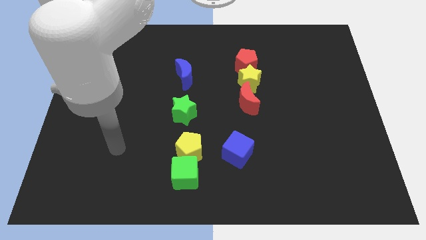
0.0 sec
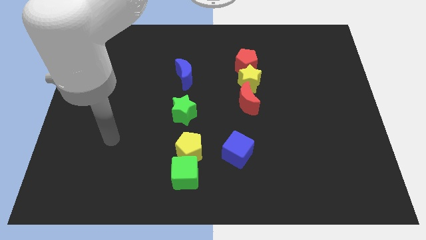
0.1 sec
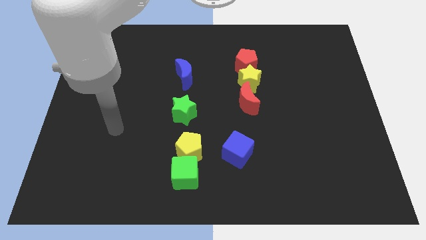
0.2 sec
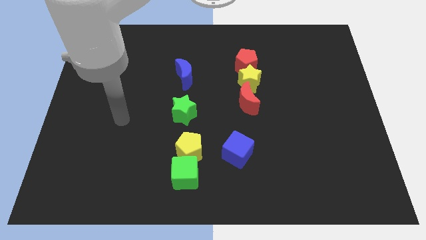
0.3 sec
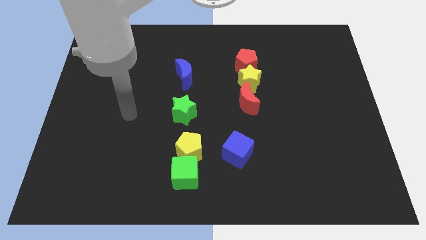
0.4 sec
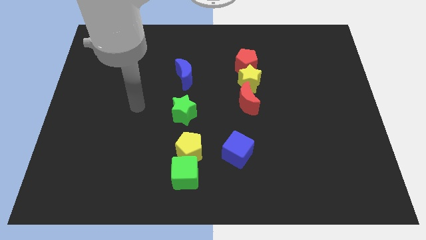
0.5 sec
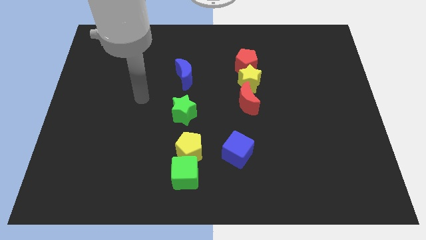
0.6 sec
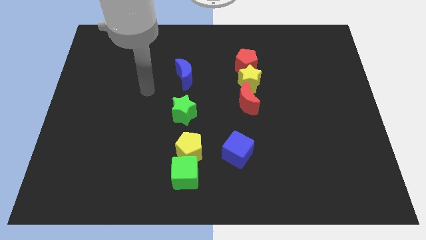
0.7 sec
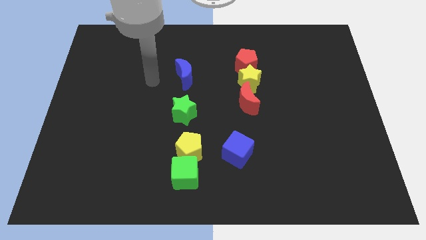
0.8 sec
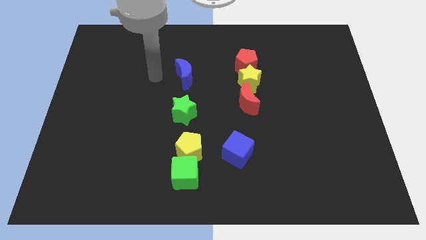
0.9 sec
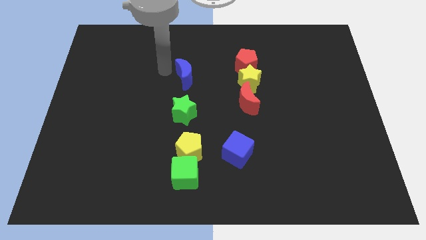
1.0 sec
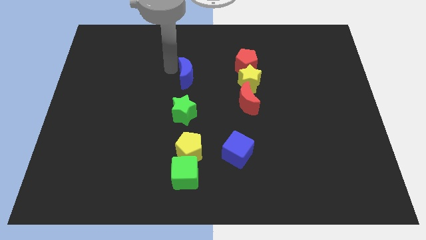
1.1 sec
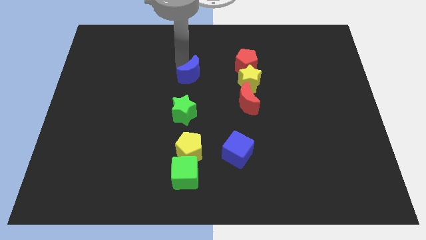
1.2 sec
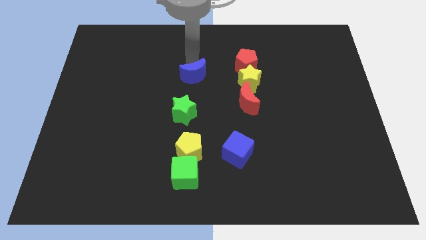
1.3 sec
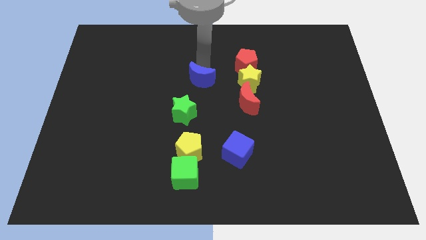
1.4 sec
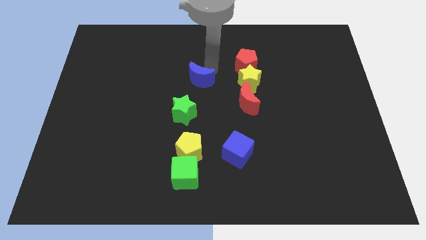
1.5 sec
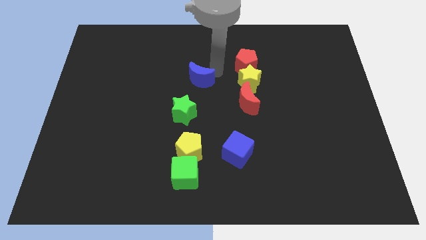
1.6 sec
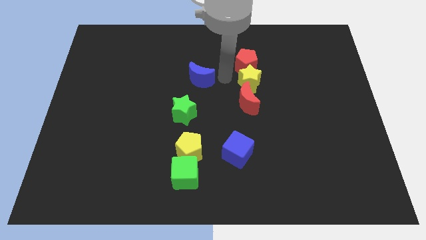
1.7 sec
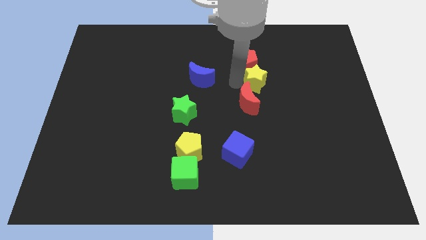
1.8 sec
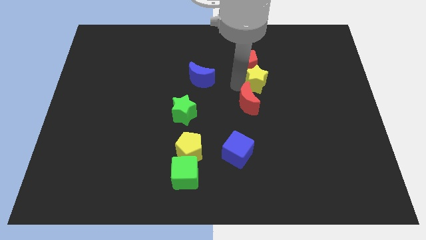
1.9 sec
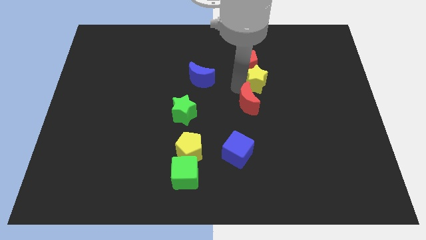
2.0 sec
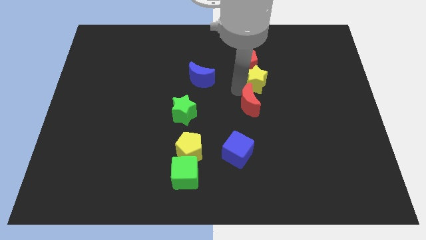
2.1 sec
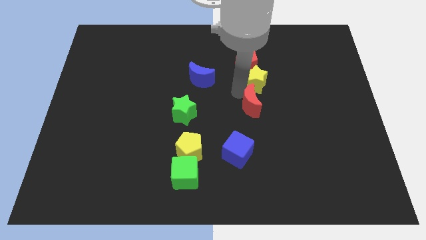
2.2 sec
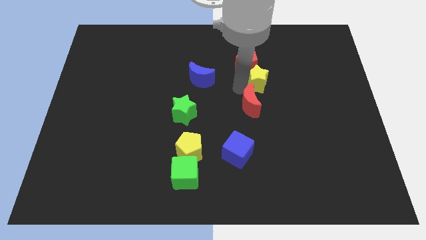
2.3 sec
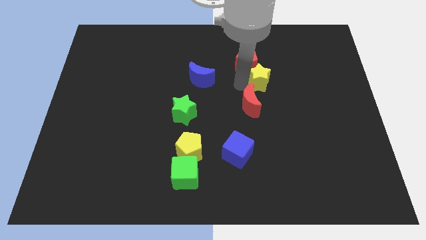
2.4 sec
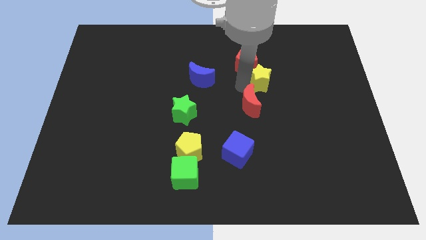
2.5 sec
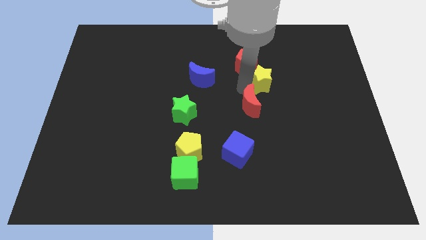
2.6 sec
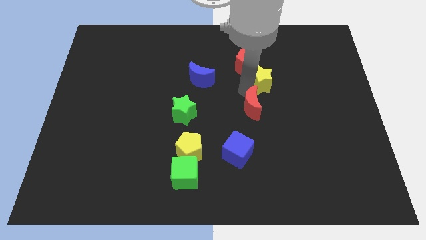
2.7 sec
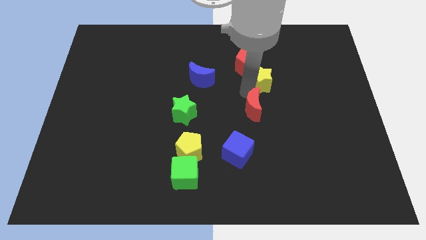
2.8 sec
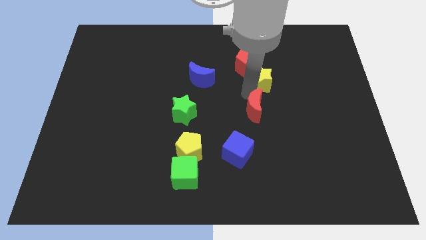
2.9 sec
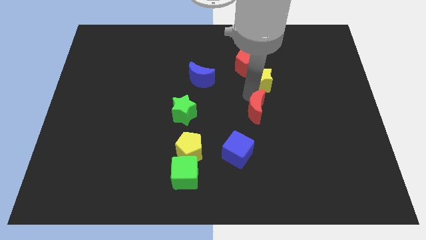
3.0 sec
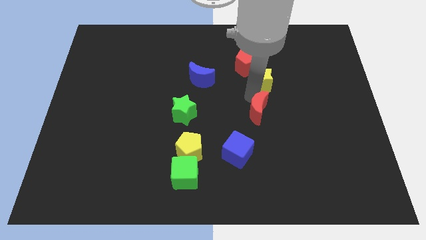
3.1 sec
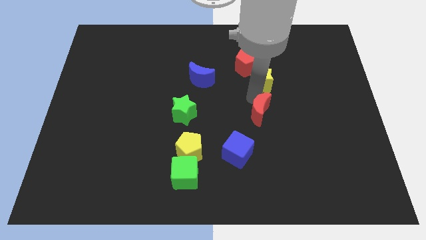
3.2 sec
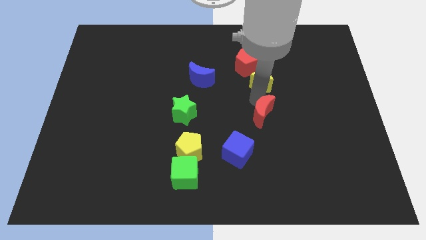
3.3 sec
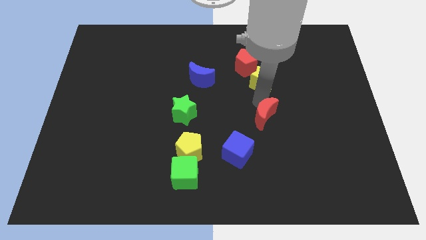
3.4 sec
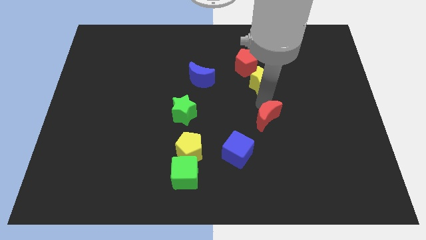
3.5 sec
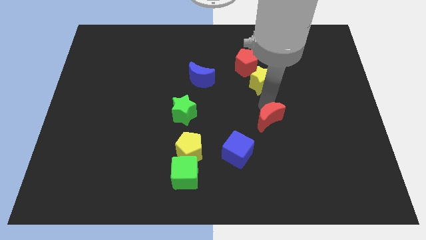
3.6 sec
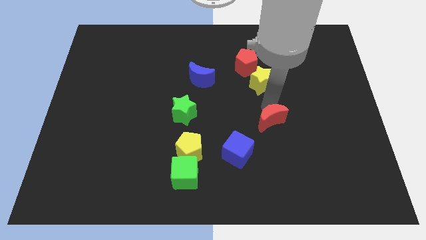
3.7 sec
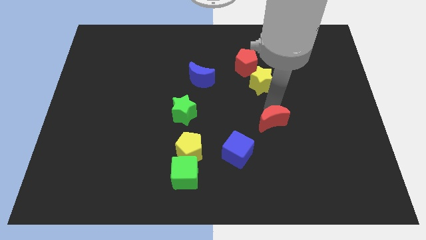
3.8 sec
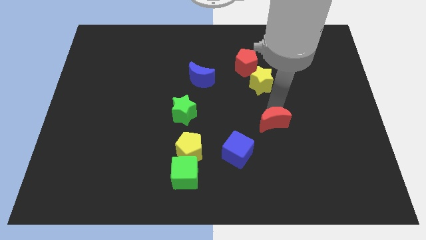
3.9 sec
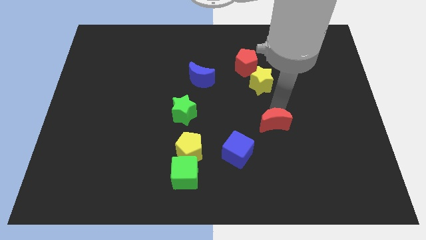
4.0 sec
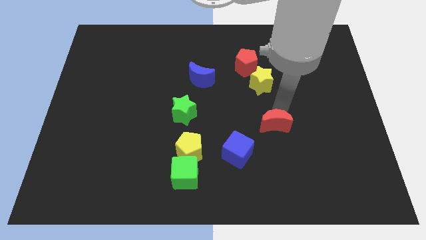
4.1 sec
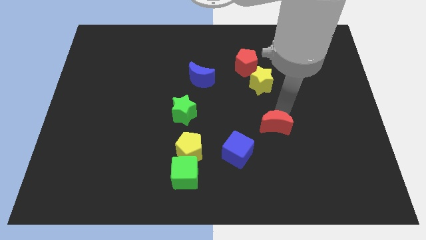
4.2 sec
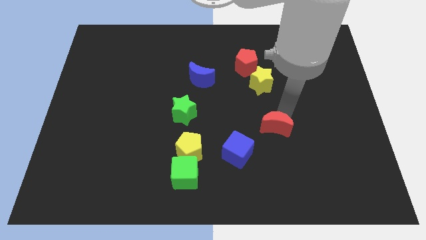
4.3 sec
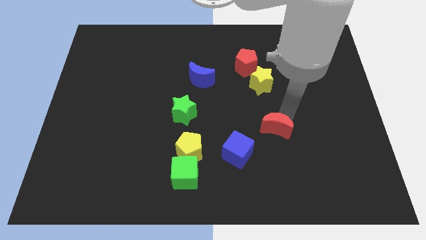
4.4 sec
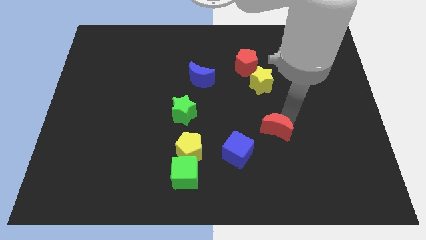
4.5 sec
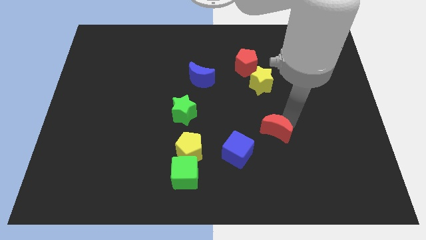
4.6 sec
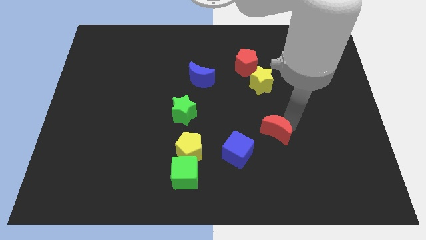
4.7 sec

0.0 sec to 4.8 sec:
slide the red moon a little bit down

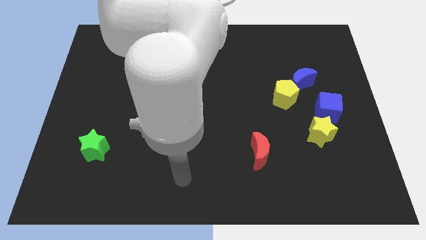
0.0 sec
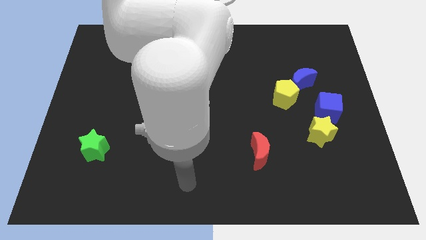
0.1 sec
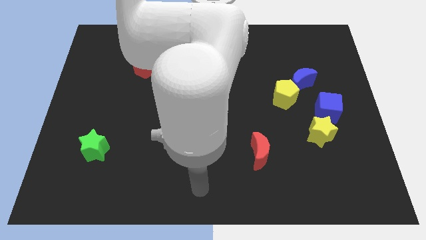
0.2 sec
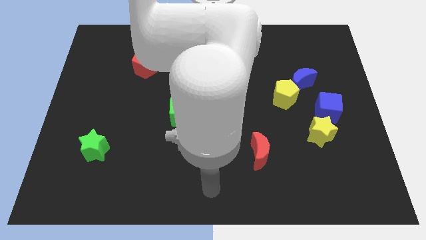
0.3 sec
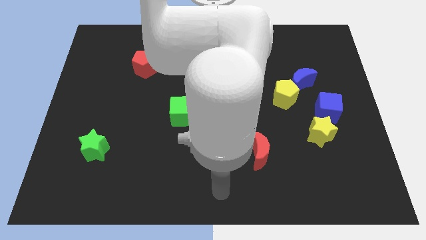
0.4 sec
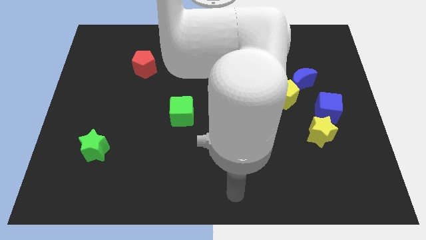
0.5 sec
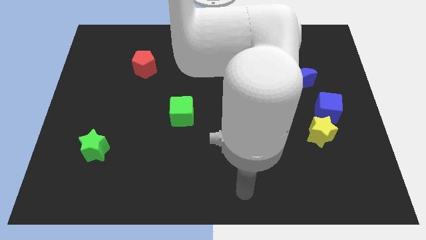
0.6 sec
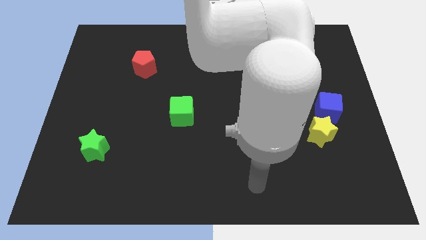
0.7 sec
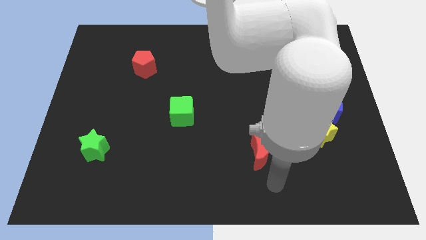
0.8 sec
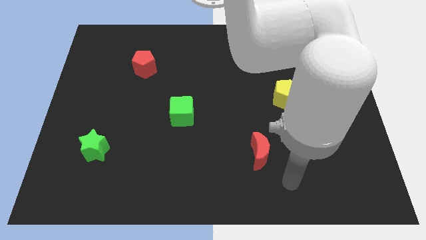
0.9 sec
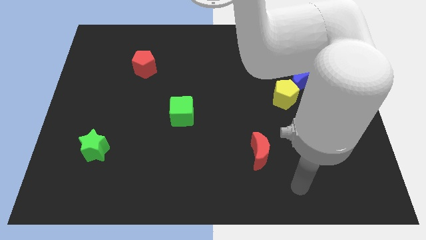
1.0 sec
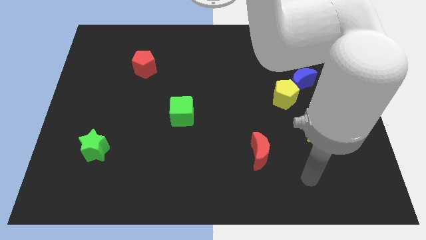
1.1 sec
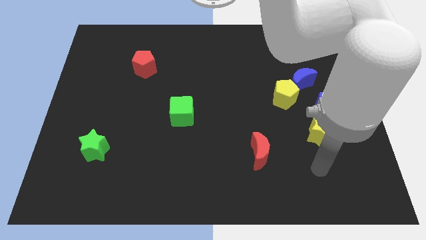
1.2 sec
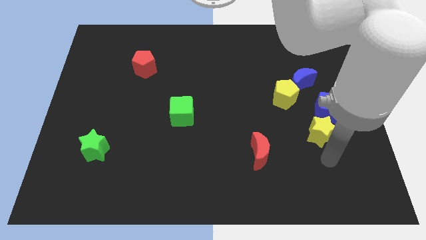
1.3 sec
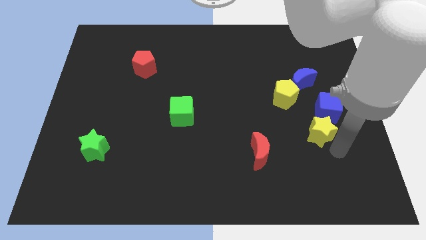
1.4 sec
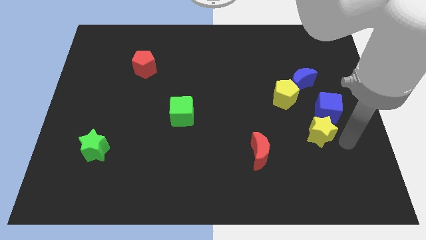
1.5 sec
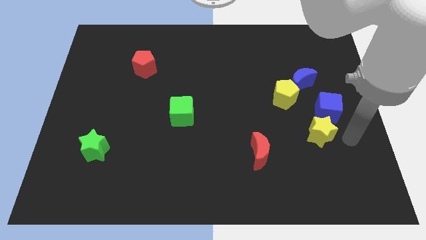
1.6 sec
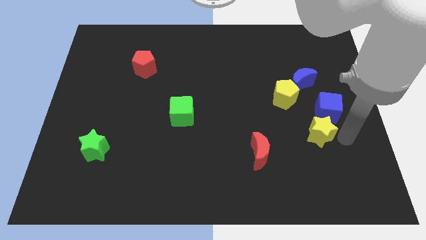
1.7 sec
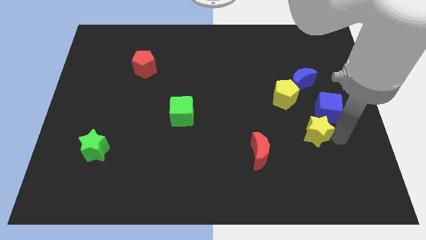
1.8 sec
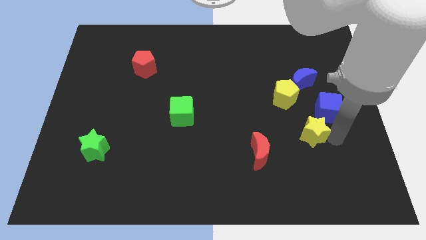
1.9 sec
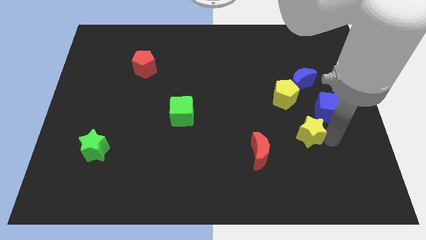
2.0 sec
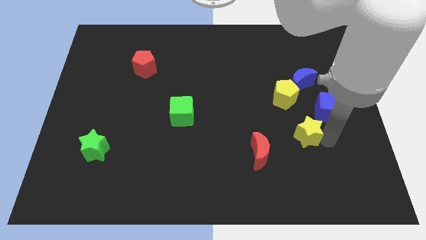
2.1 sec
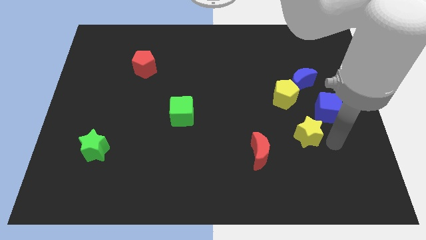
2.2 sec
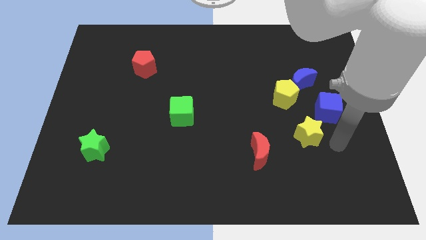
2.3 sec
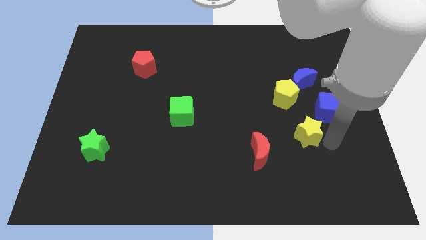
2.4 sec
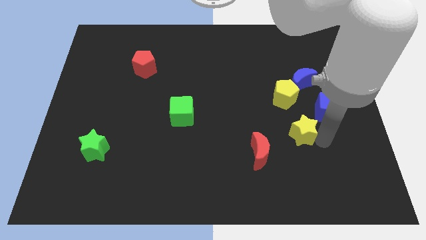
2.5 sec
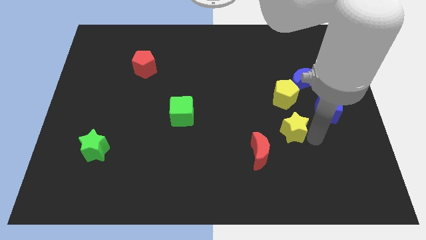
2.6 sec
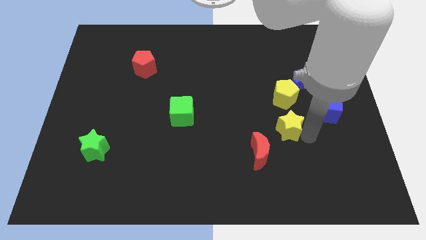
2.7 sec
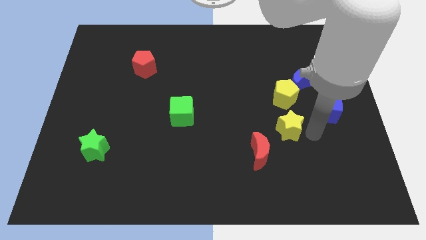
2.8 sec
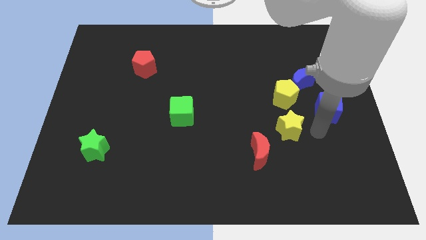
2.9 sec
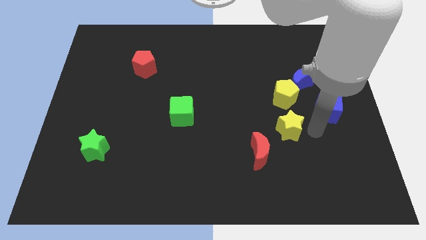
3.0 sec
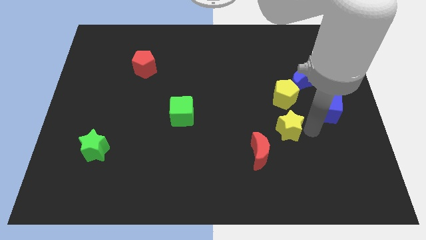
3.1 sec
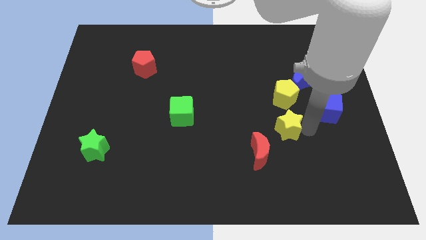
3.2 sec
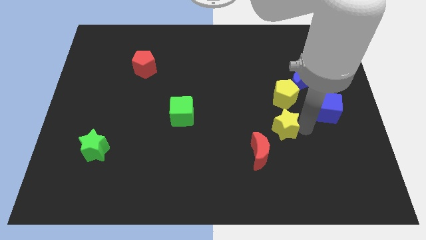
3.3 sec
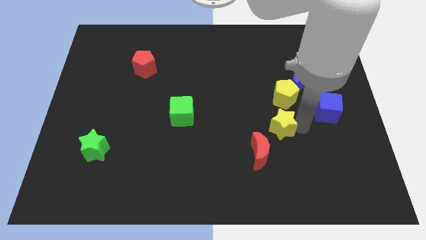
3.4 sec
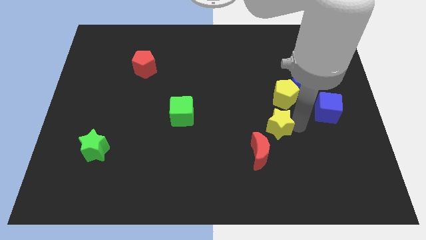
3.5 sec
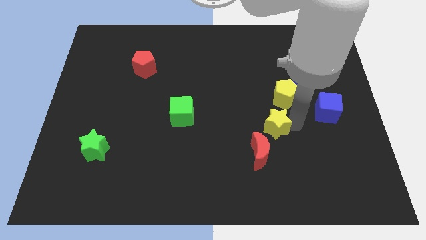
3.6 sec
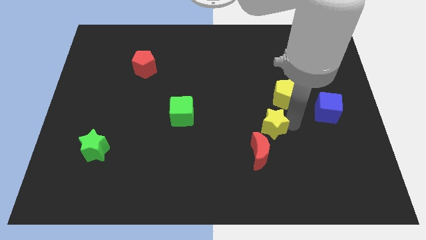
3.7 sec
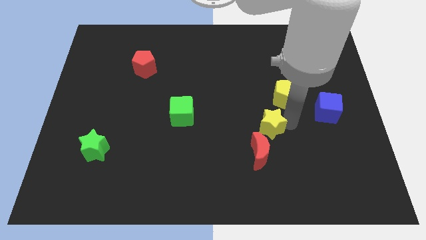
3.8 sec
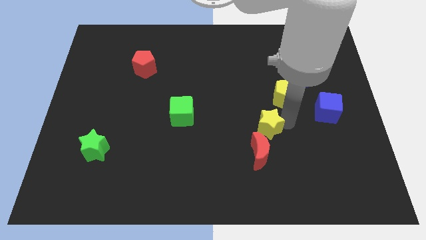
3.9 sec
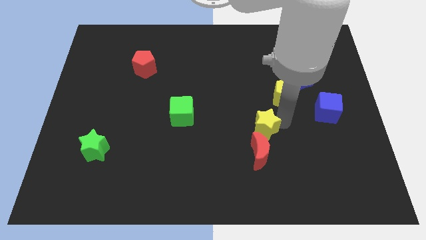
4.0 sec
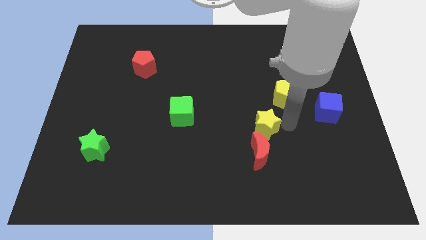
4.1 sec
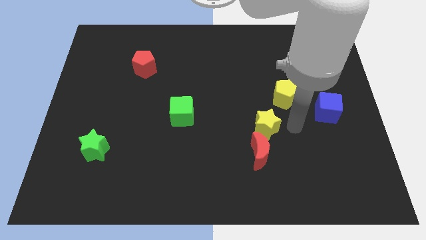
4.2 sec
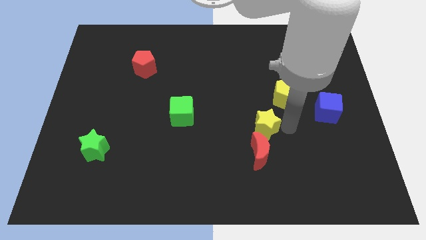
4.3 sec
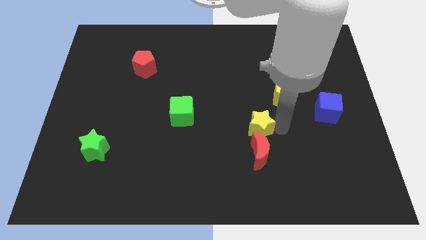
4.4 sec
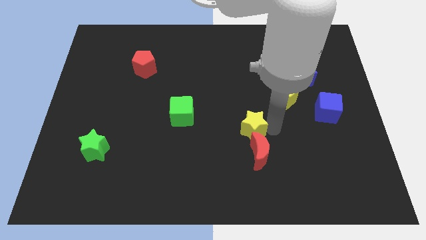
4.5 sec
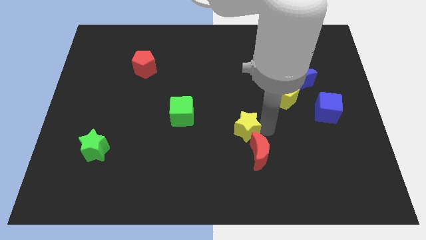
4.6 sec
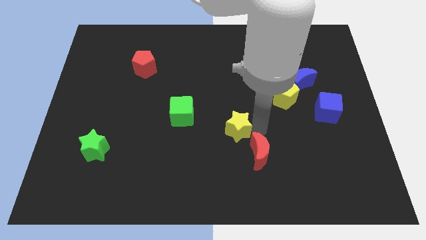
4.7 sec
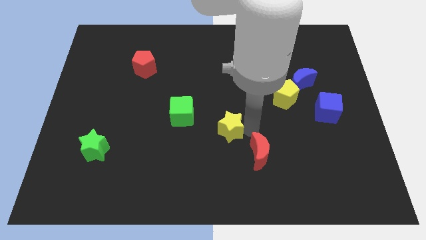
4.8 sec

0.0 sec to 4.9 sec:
slide the yellow star to the left
